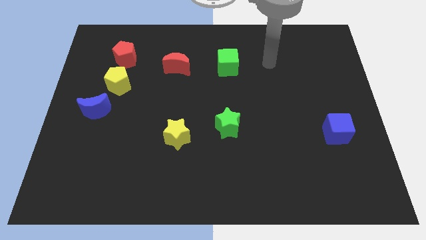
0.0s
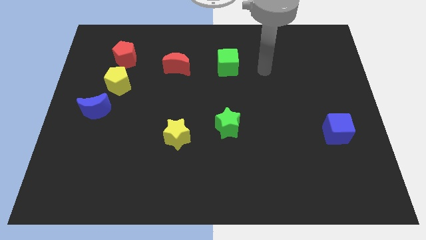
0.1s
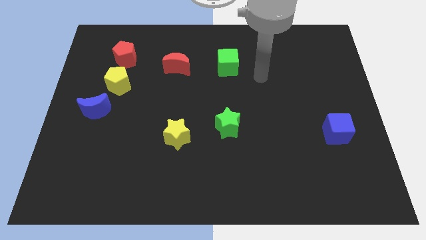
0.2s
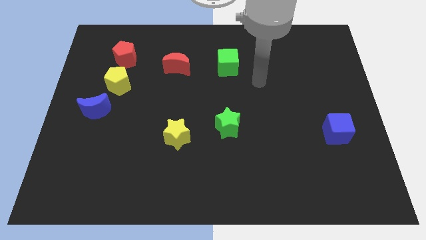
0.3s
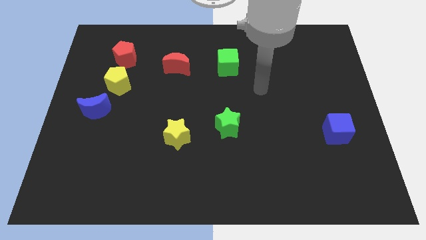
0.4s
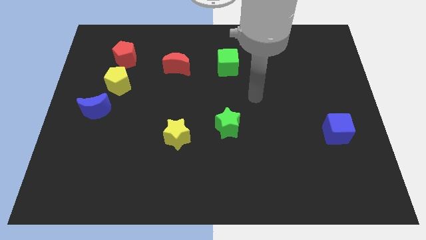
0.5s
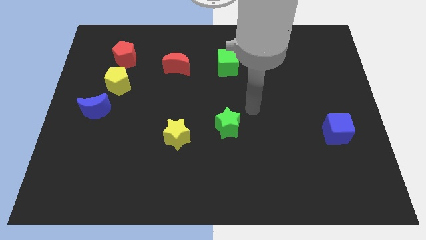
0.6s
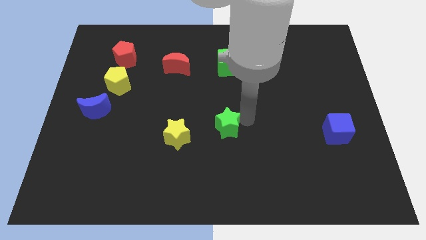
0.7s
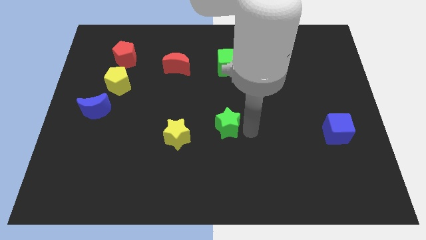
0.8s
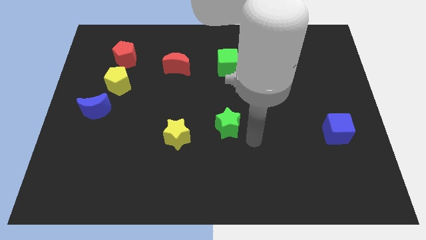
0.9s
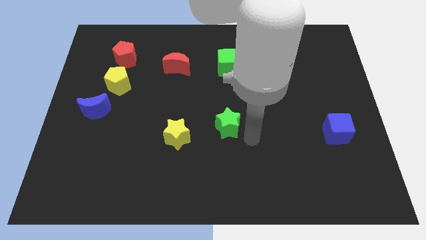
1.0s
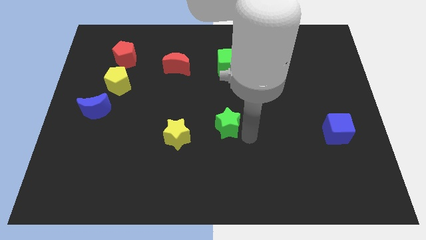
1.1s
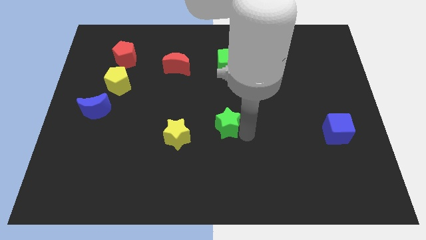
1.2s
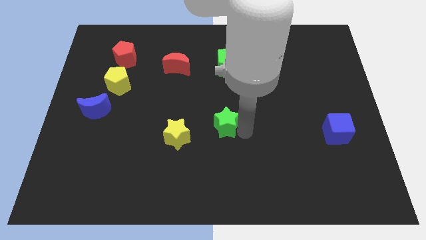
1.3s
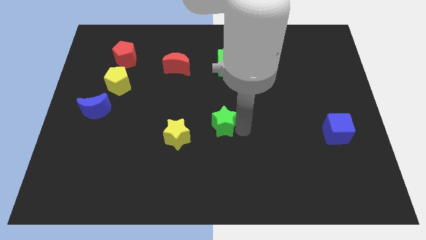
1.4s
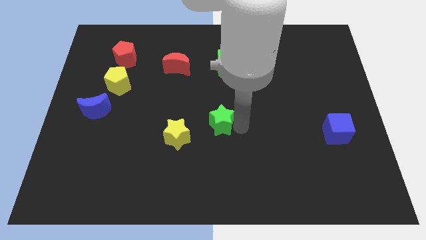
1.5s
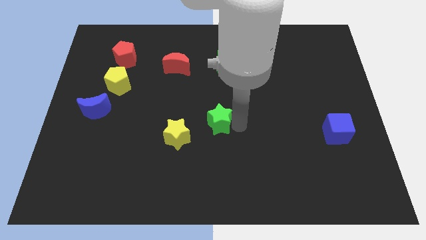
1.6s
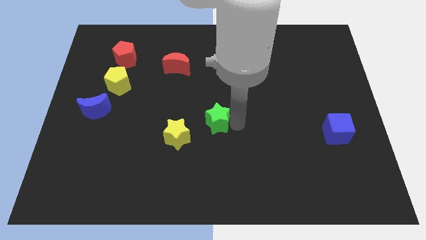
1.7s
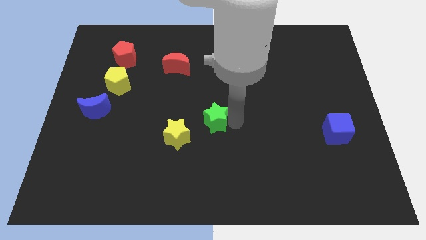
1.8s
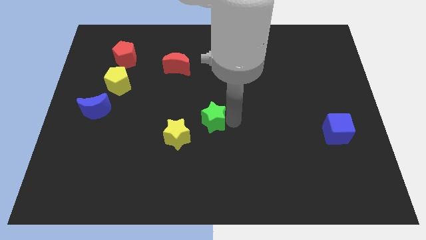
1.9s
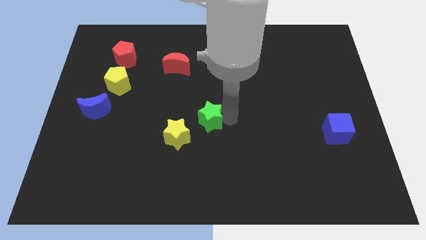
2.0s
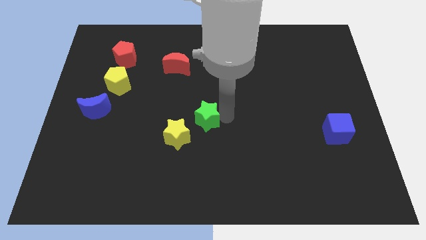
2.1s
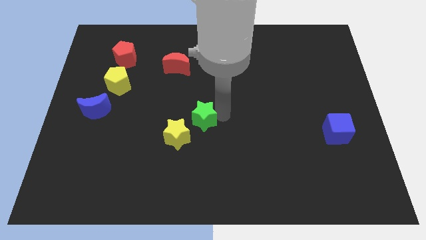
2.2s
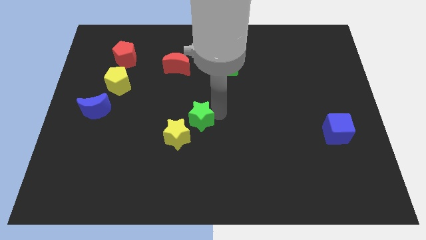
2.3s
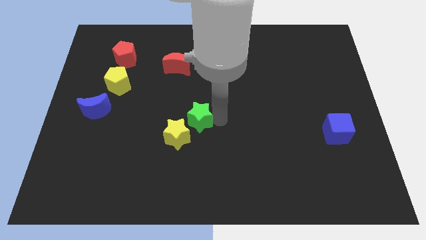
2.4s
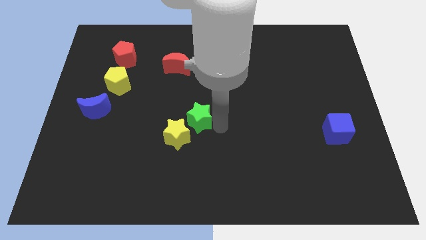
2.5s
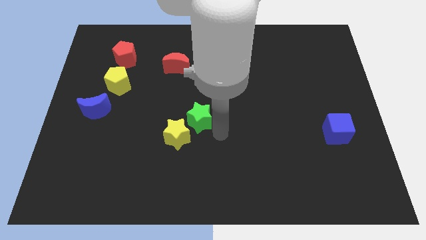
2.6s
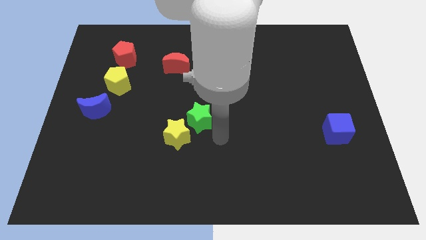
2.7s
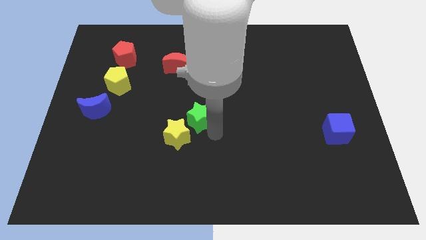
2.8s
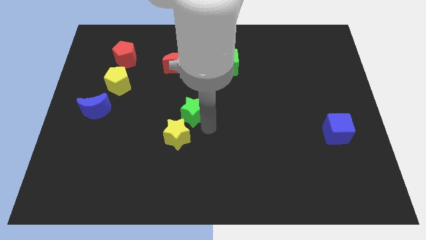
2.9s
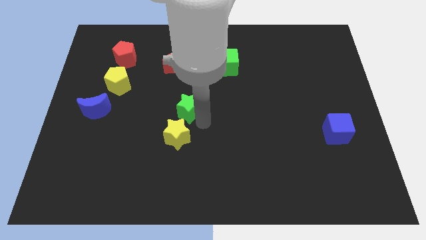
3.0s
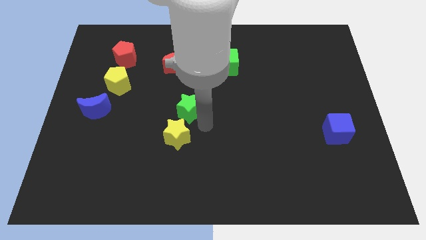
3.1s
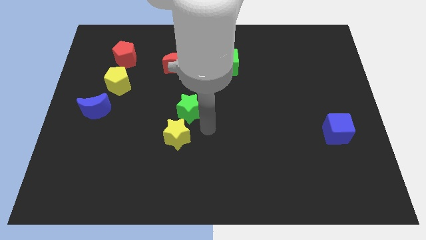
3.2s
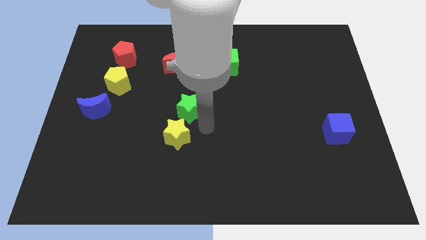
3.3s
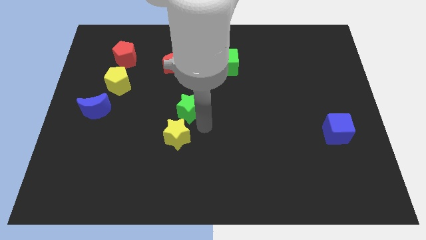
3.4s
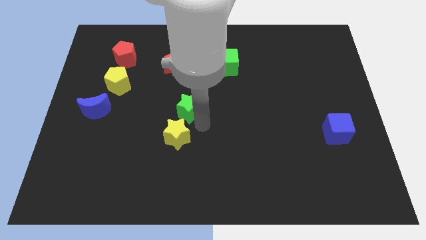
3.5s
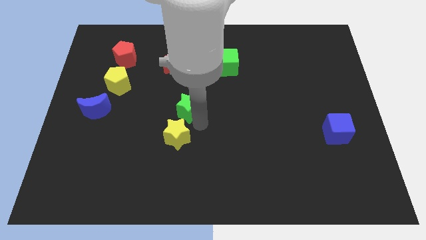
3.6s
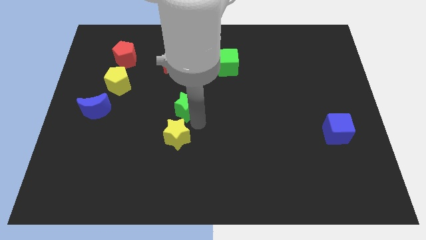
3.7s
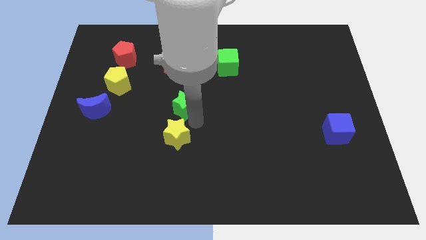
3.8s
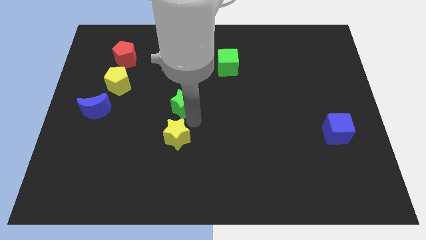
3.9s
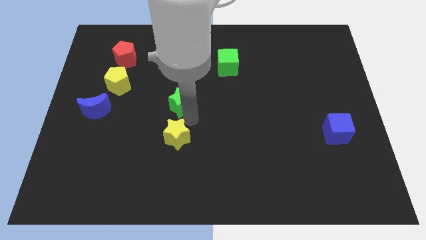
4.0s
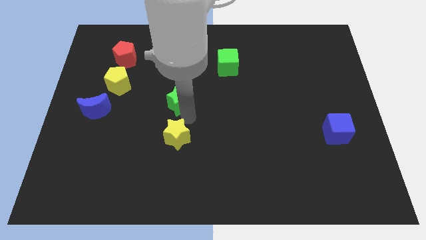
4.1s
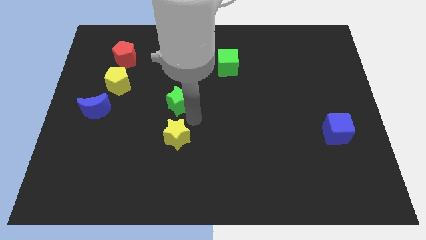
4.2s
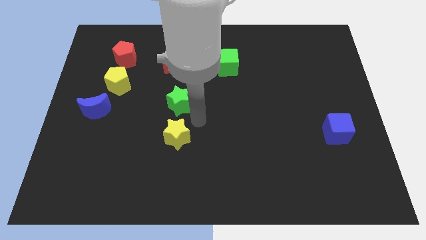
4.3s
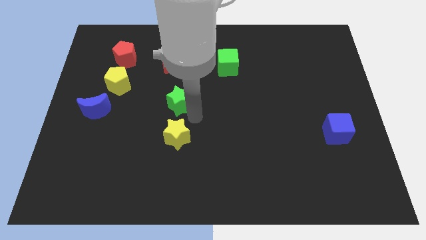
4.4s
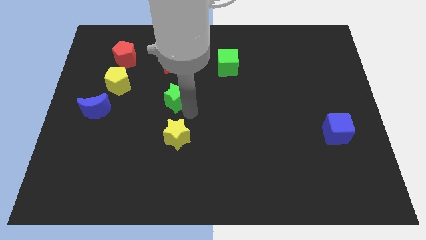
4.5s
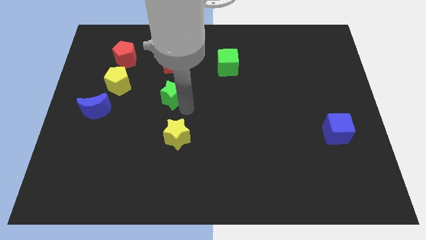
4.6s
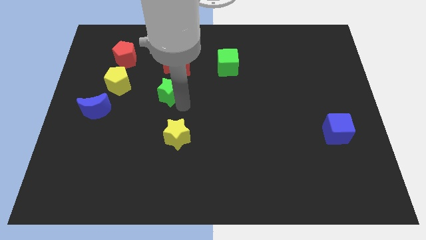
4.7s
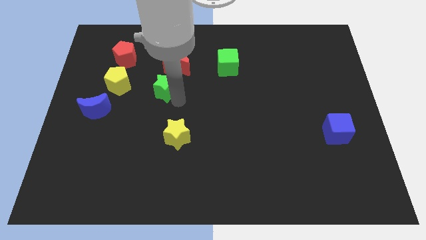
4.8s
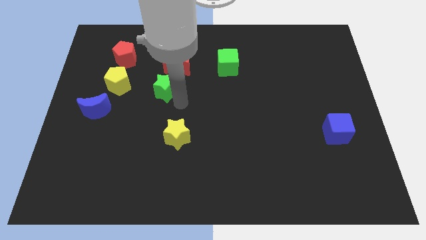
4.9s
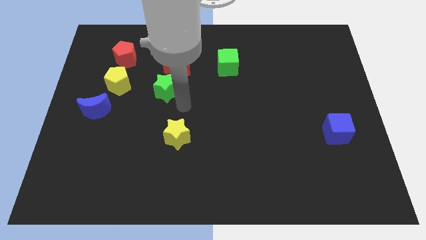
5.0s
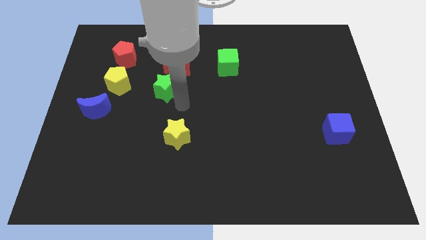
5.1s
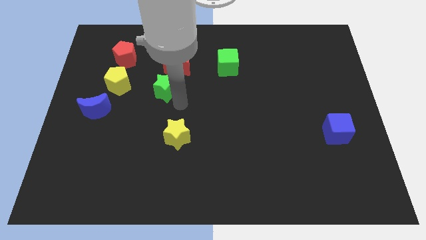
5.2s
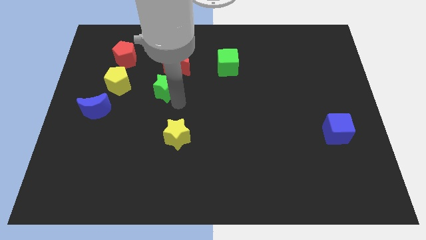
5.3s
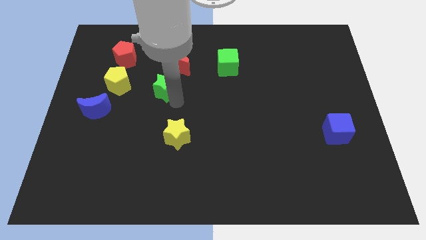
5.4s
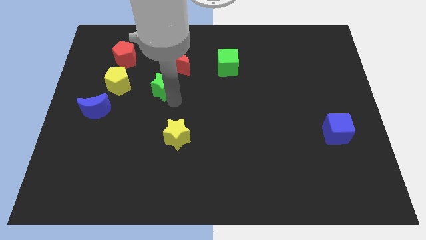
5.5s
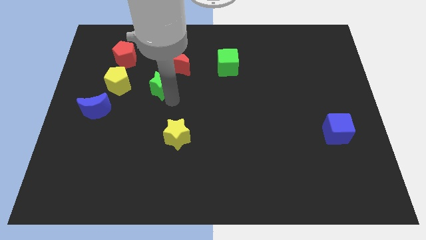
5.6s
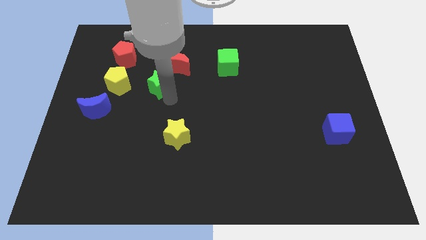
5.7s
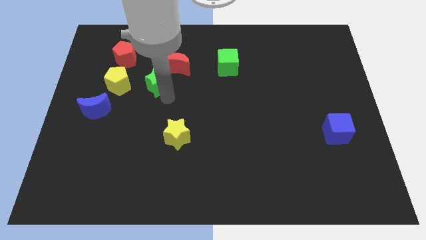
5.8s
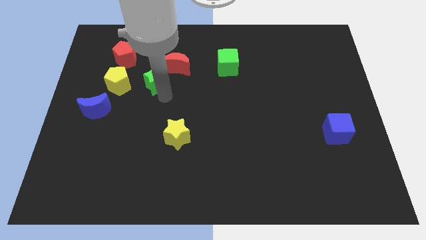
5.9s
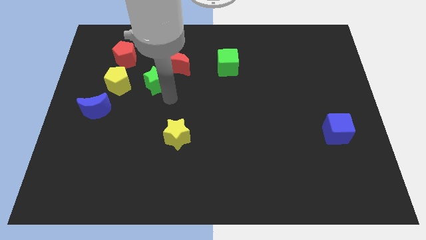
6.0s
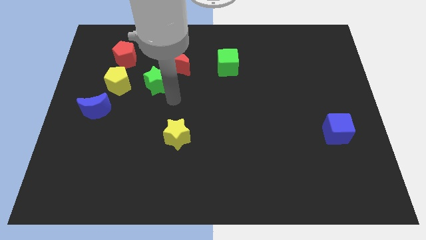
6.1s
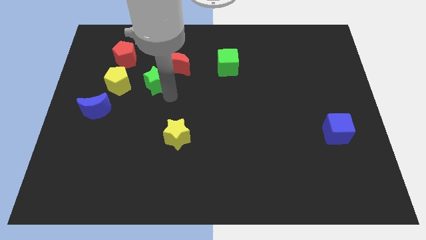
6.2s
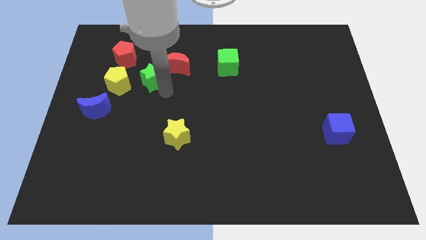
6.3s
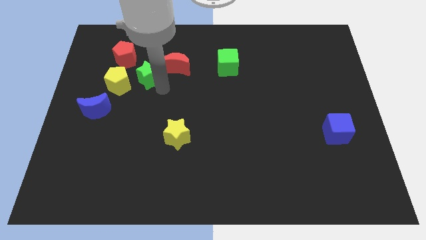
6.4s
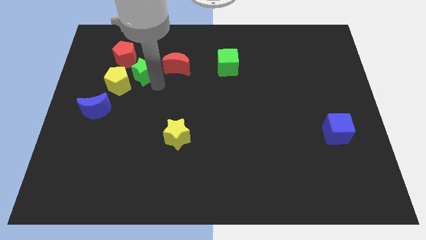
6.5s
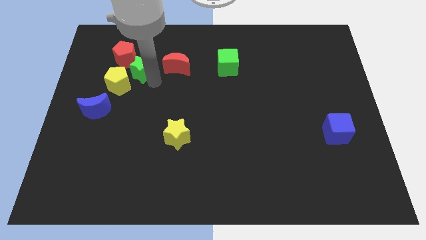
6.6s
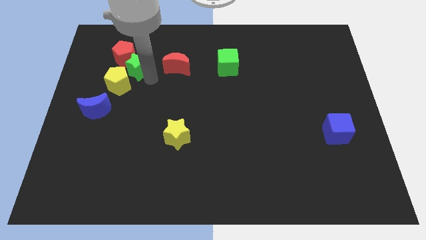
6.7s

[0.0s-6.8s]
slide the green star towards the red pentagon

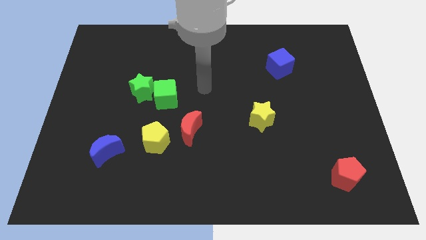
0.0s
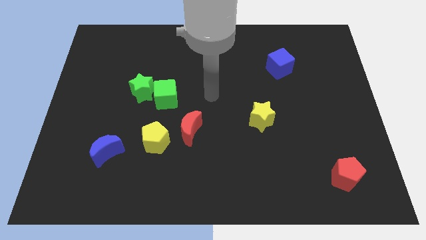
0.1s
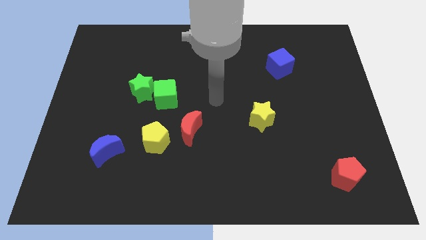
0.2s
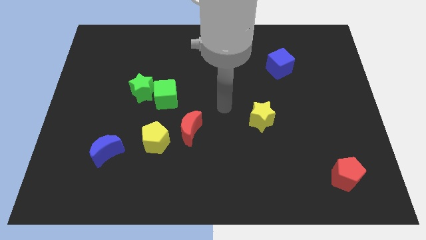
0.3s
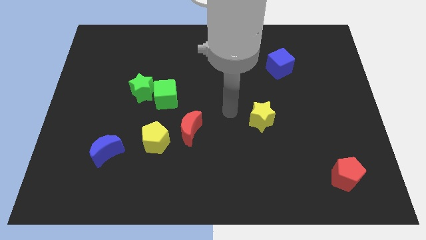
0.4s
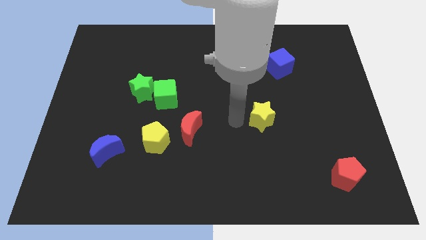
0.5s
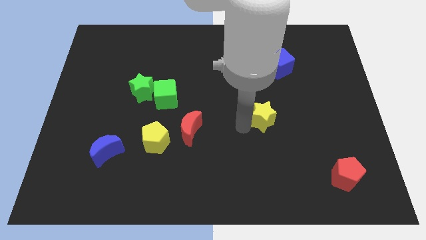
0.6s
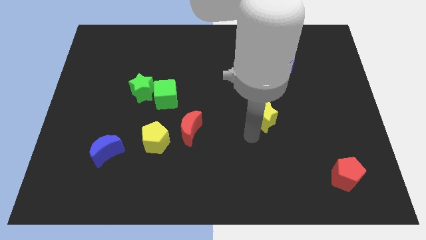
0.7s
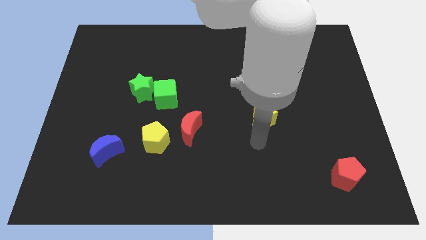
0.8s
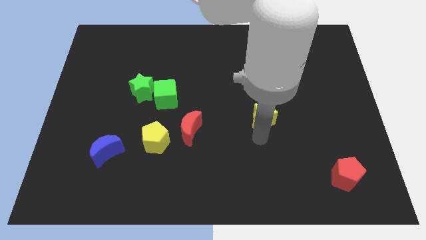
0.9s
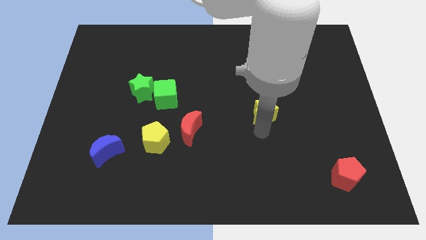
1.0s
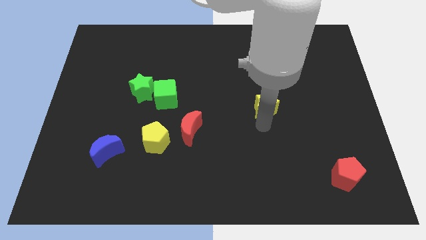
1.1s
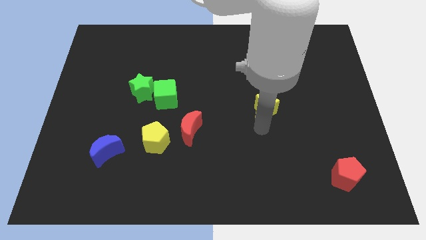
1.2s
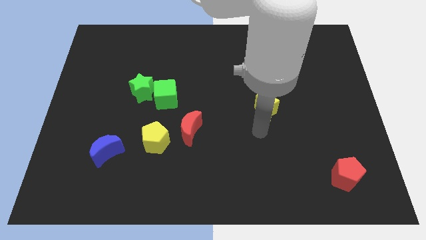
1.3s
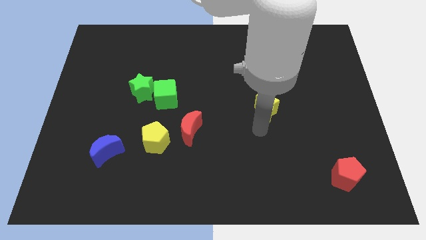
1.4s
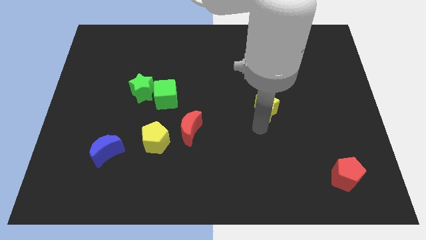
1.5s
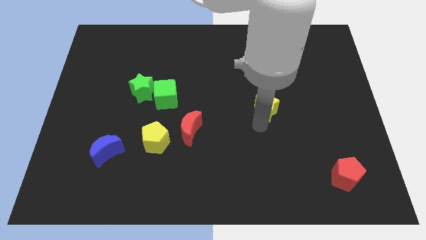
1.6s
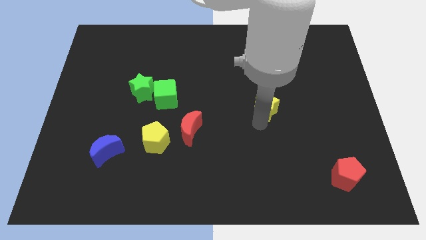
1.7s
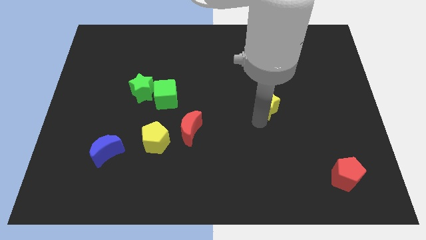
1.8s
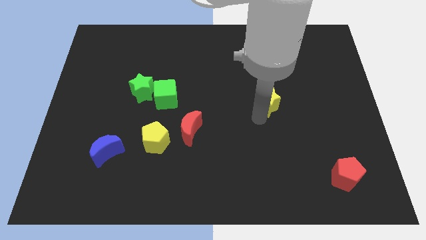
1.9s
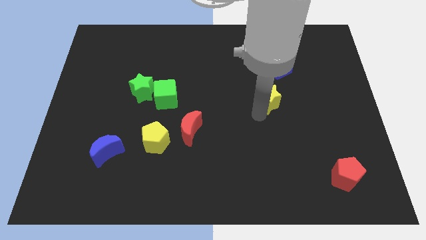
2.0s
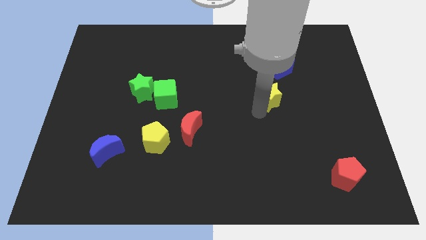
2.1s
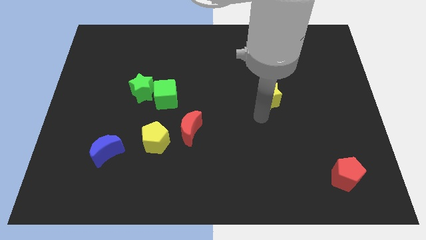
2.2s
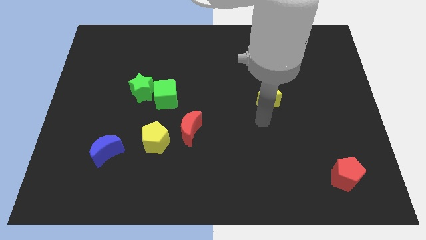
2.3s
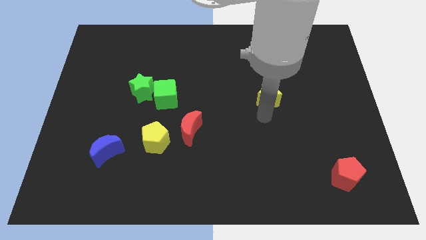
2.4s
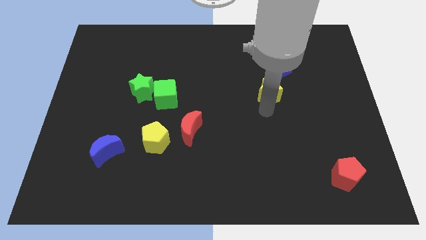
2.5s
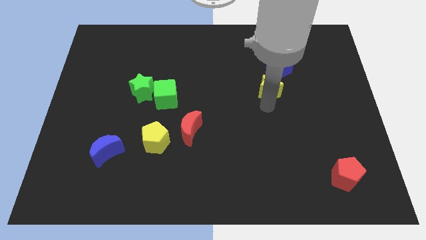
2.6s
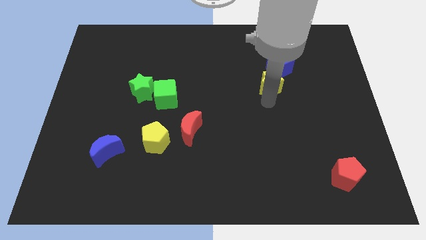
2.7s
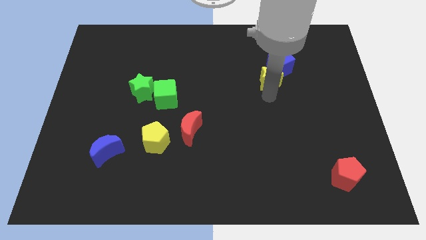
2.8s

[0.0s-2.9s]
put the yellow star to the blue cube
